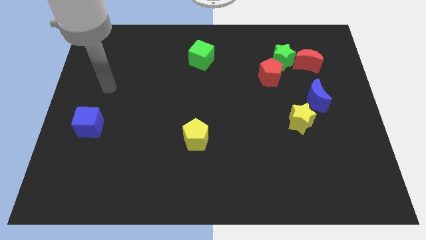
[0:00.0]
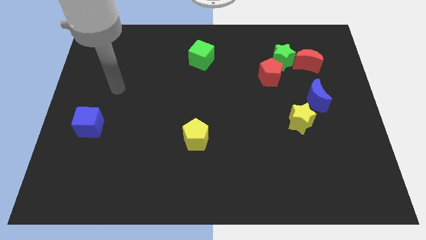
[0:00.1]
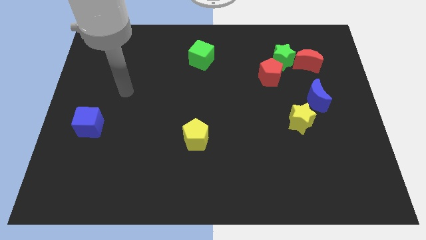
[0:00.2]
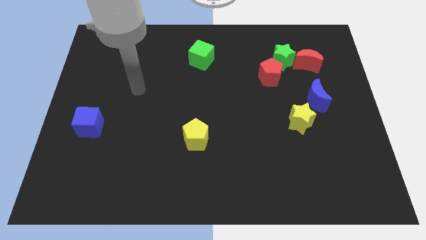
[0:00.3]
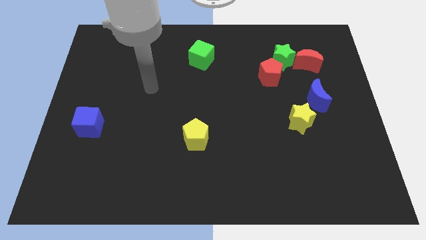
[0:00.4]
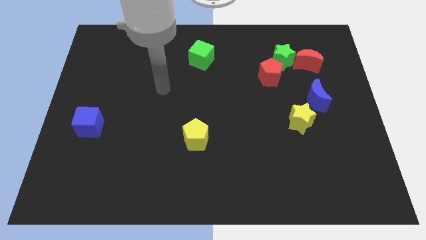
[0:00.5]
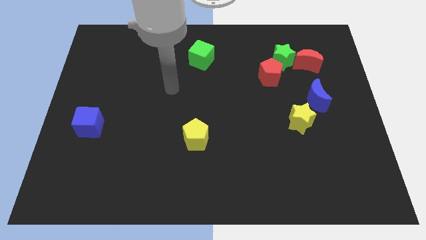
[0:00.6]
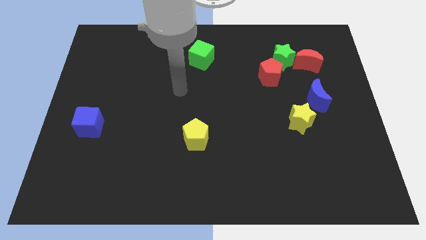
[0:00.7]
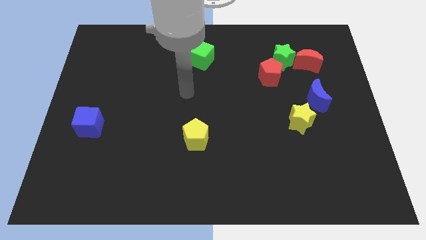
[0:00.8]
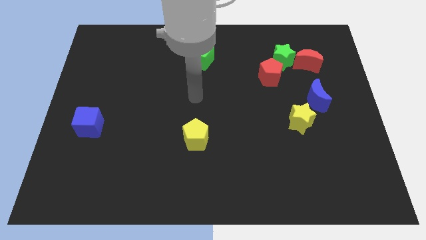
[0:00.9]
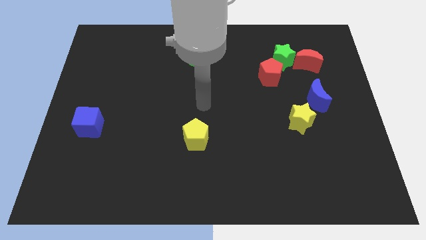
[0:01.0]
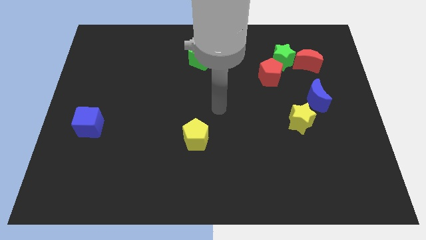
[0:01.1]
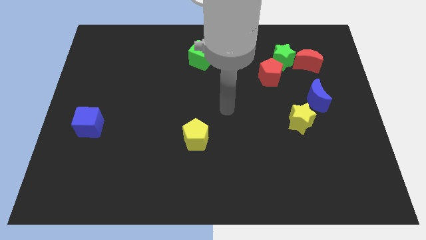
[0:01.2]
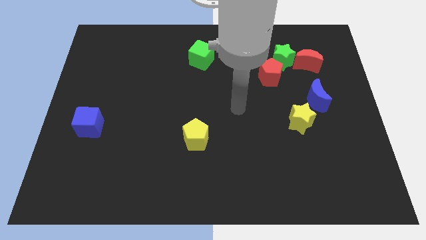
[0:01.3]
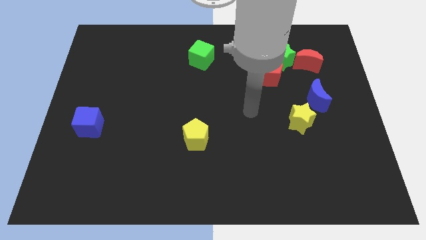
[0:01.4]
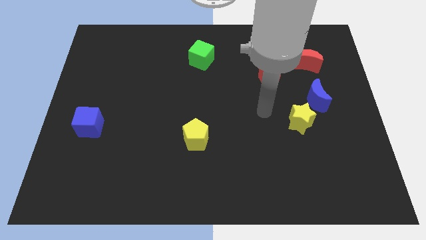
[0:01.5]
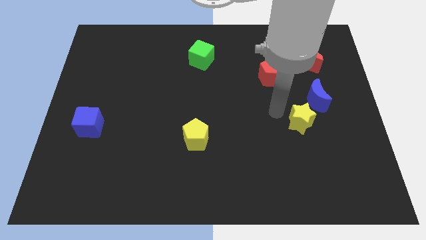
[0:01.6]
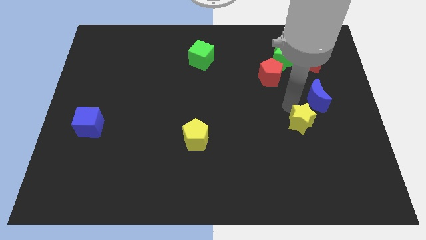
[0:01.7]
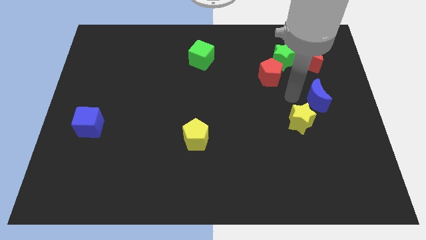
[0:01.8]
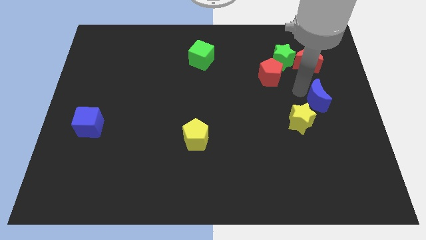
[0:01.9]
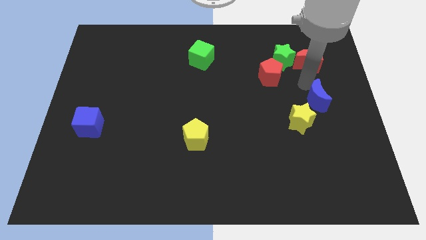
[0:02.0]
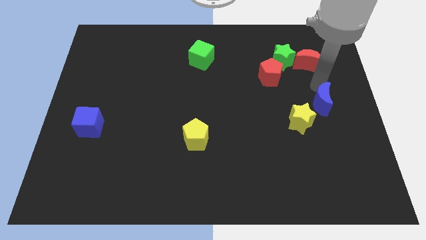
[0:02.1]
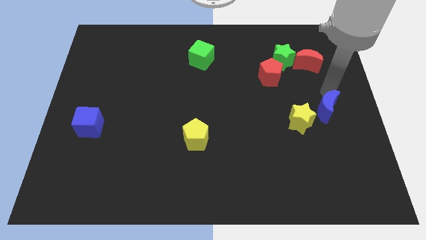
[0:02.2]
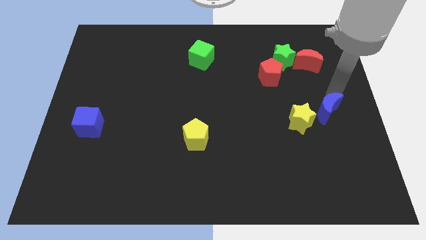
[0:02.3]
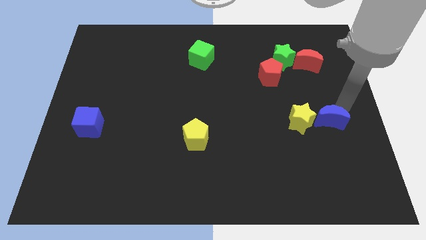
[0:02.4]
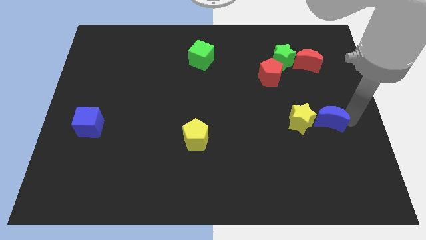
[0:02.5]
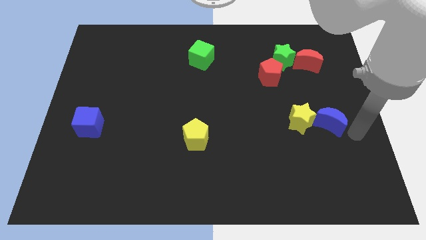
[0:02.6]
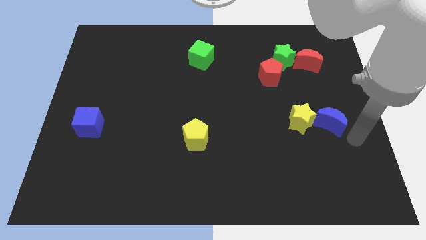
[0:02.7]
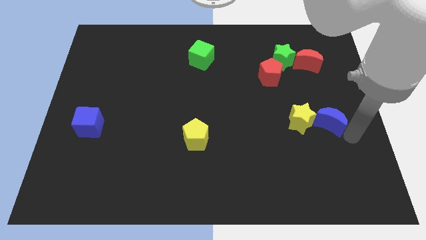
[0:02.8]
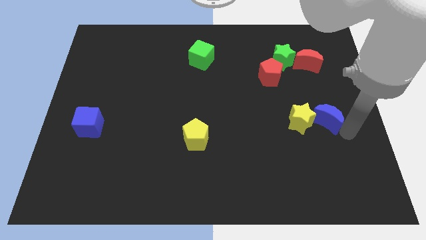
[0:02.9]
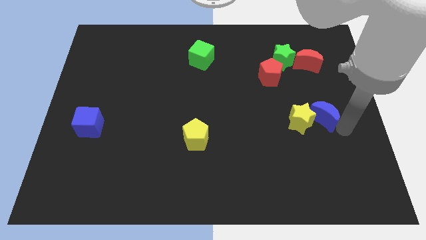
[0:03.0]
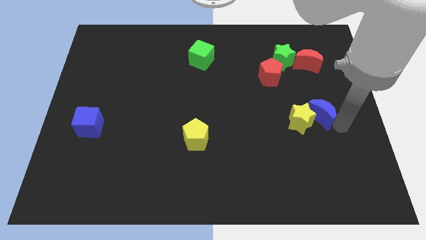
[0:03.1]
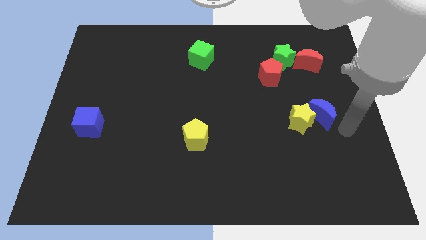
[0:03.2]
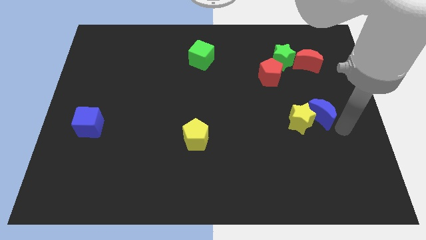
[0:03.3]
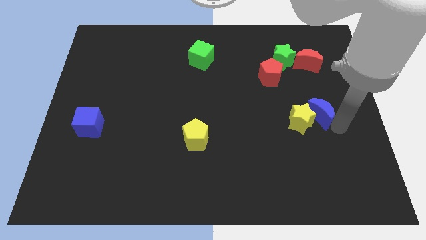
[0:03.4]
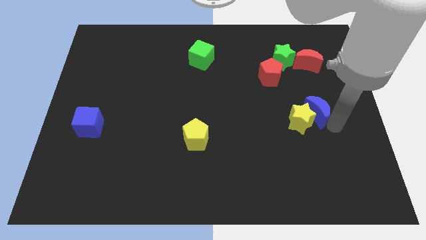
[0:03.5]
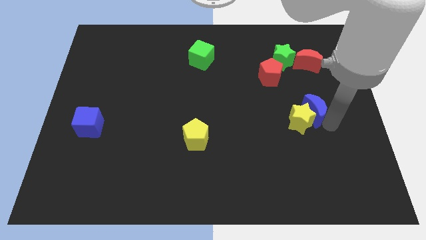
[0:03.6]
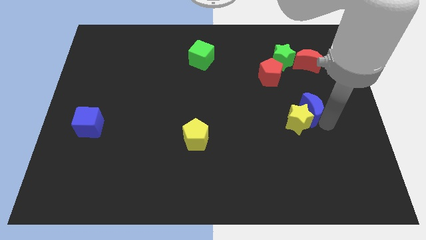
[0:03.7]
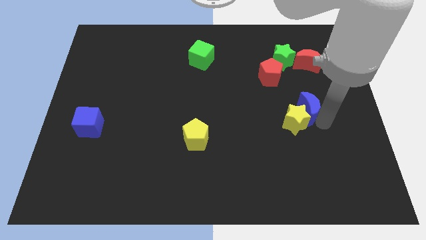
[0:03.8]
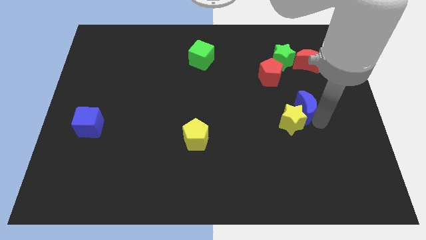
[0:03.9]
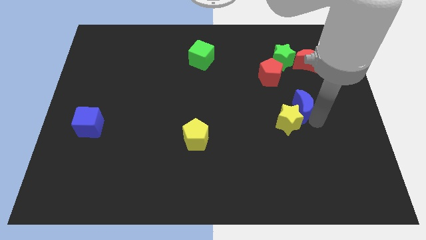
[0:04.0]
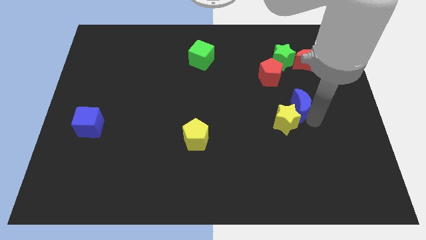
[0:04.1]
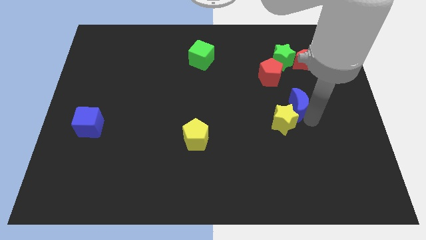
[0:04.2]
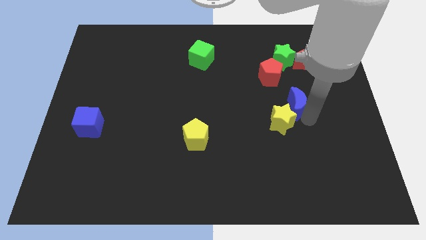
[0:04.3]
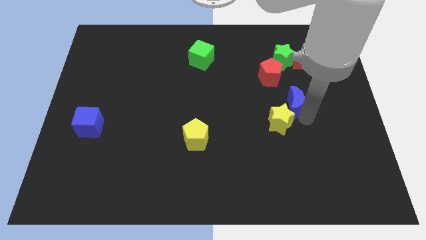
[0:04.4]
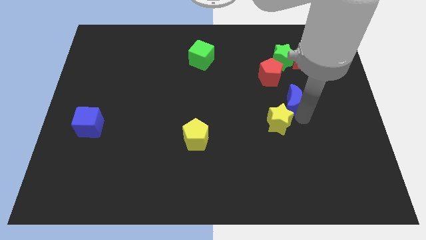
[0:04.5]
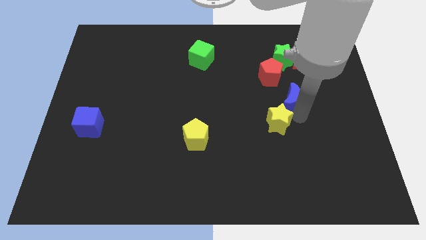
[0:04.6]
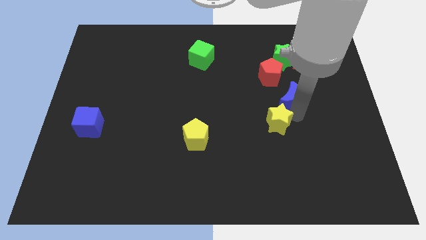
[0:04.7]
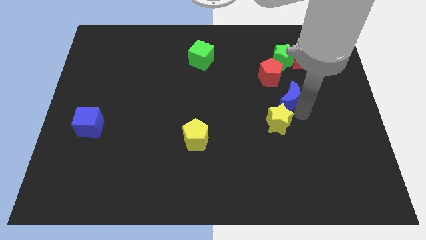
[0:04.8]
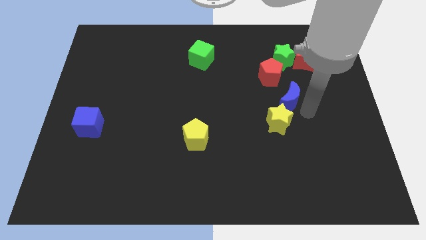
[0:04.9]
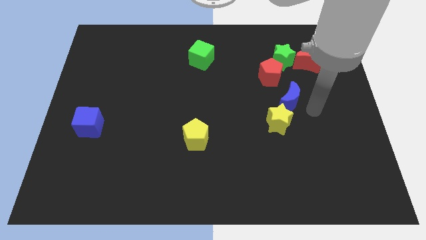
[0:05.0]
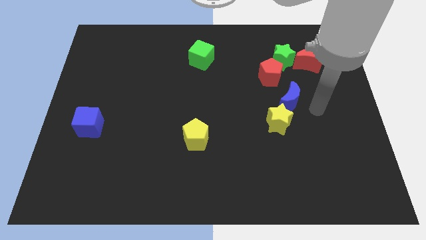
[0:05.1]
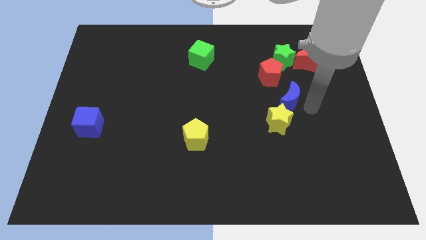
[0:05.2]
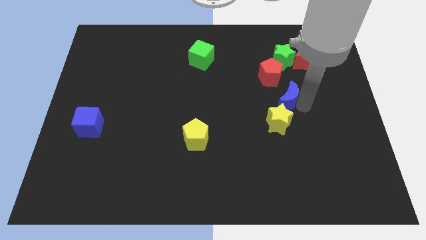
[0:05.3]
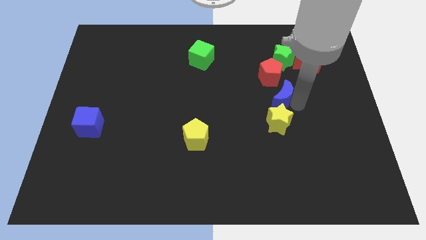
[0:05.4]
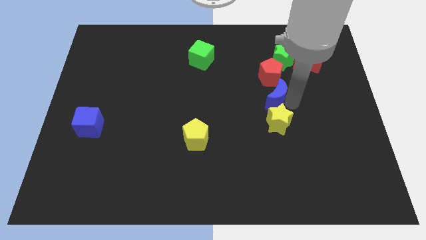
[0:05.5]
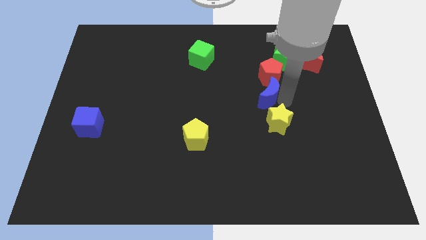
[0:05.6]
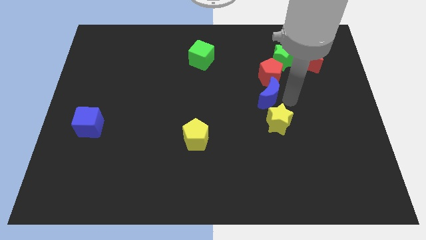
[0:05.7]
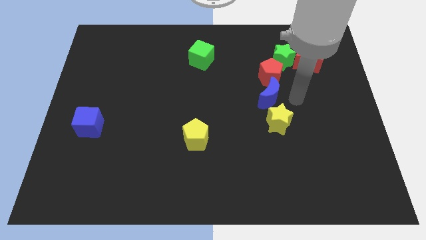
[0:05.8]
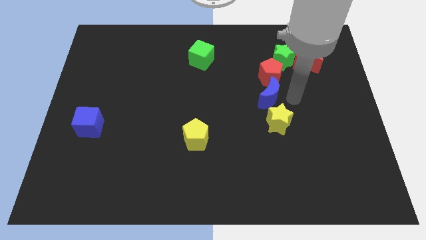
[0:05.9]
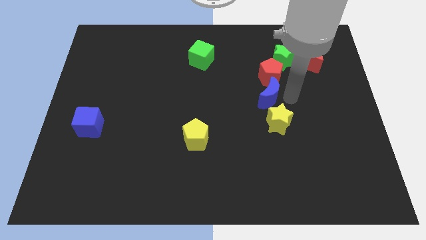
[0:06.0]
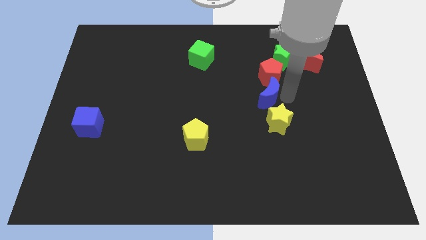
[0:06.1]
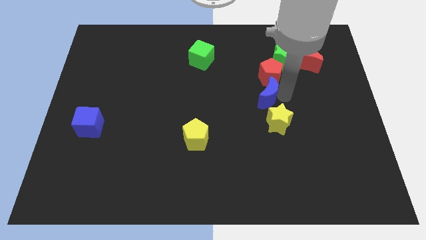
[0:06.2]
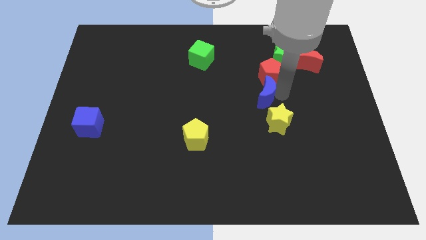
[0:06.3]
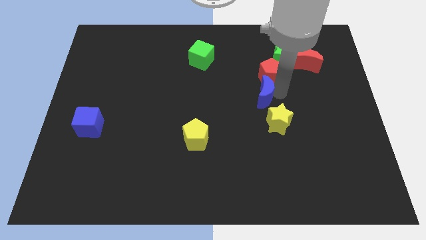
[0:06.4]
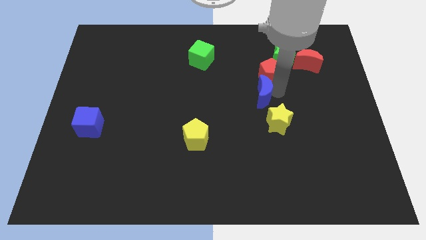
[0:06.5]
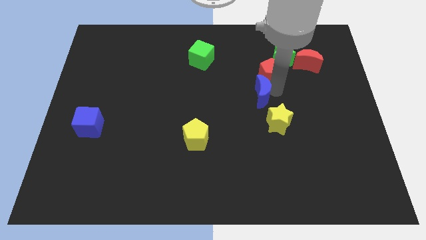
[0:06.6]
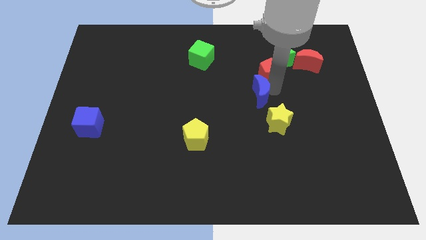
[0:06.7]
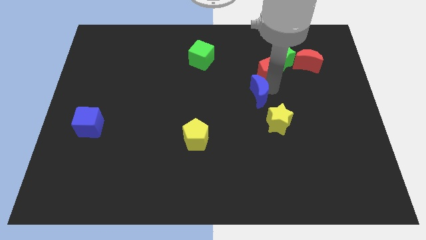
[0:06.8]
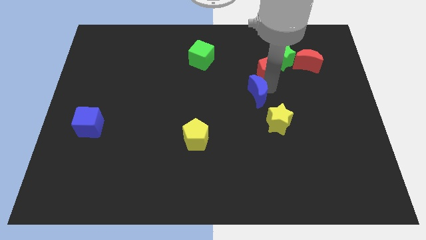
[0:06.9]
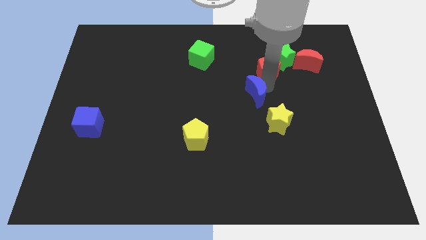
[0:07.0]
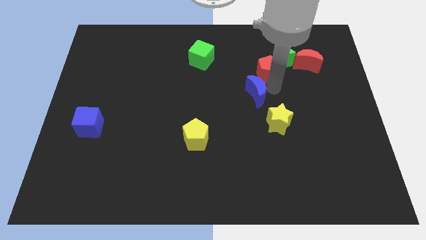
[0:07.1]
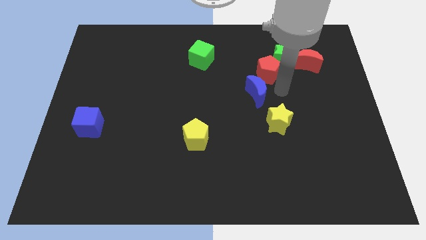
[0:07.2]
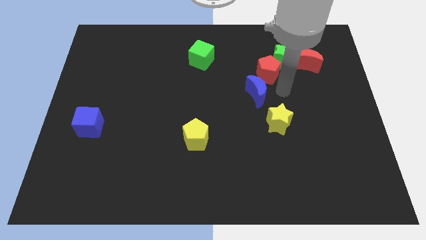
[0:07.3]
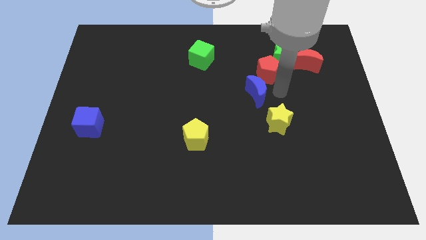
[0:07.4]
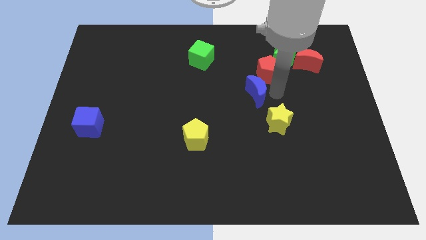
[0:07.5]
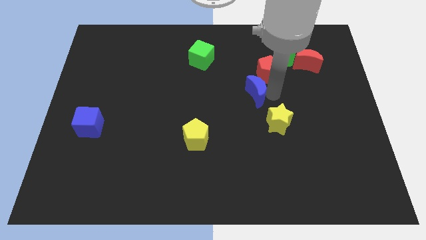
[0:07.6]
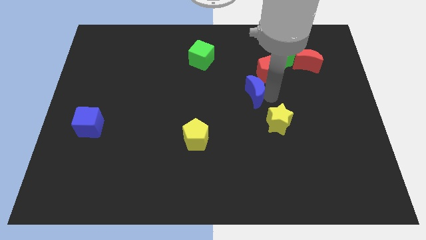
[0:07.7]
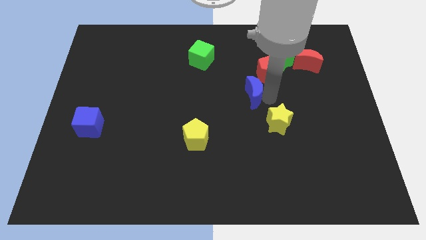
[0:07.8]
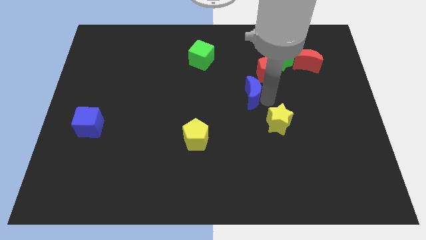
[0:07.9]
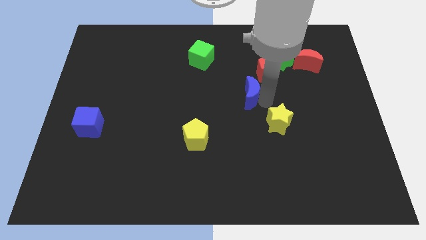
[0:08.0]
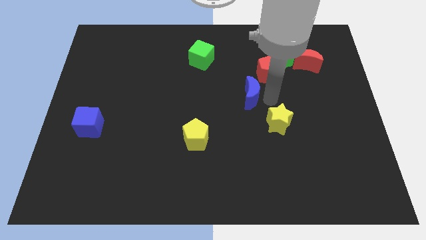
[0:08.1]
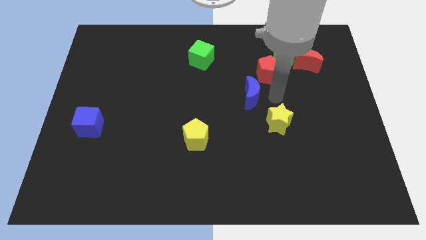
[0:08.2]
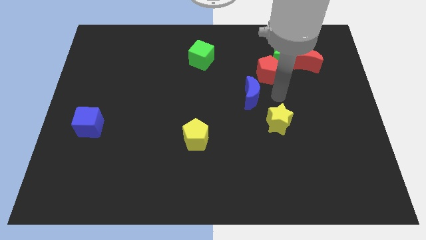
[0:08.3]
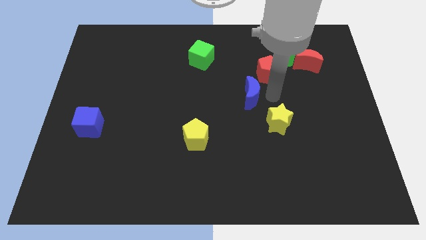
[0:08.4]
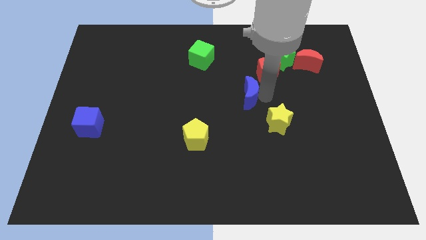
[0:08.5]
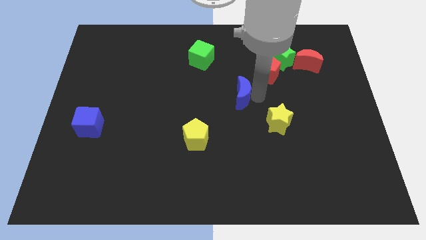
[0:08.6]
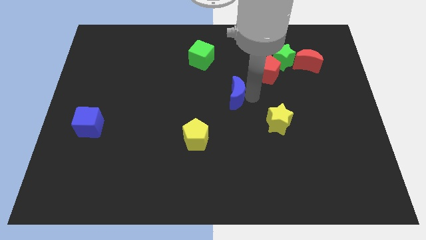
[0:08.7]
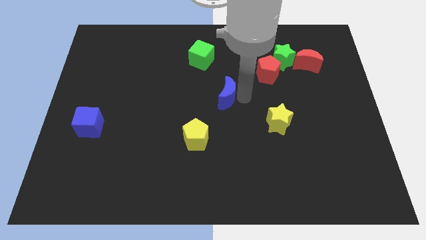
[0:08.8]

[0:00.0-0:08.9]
slide the blue moon left
